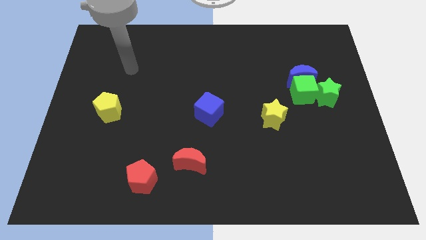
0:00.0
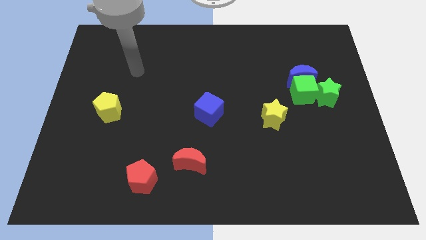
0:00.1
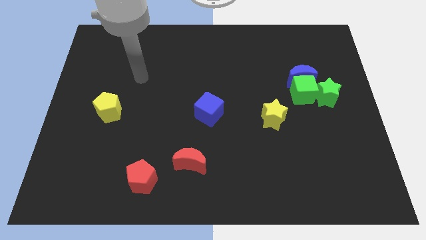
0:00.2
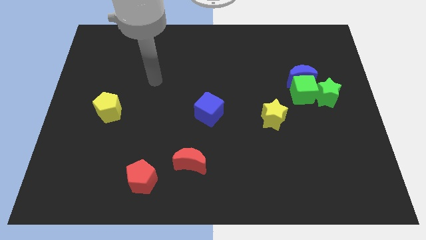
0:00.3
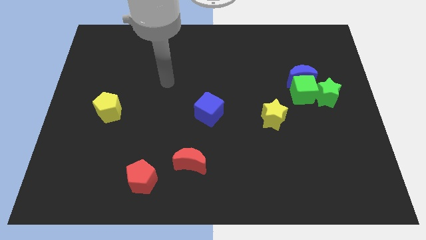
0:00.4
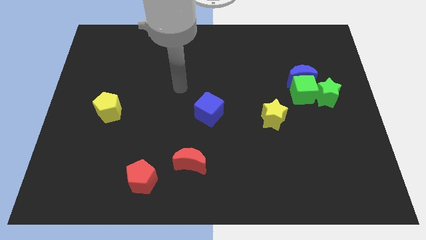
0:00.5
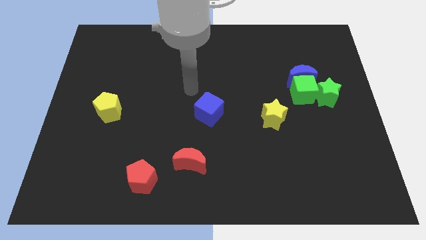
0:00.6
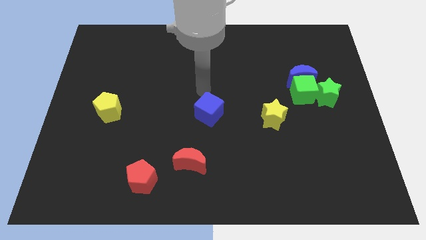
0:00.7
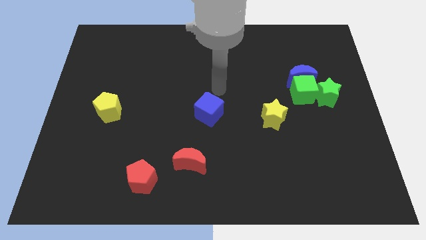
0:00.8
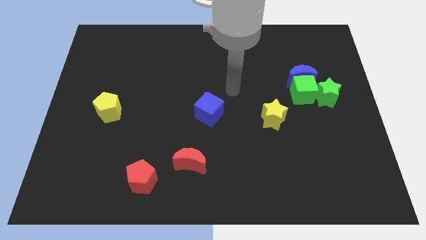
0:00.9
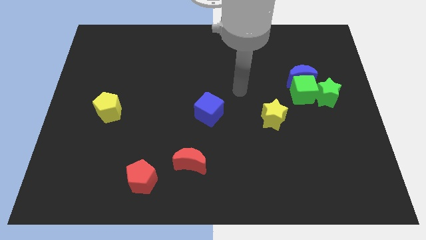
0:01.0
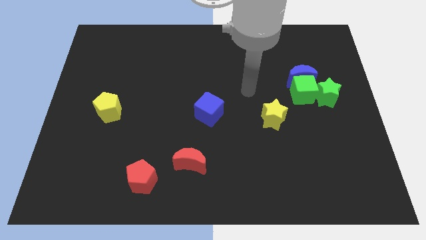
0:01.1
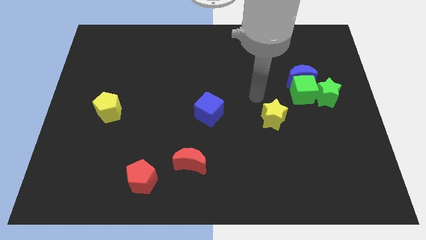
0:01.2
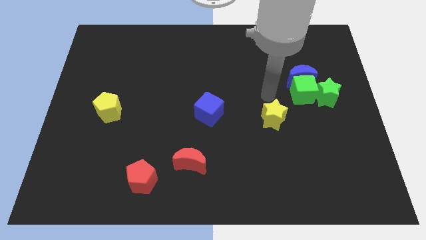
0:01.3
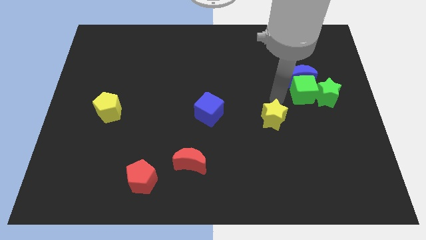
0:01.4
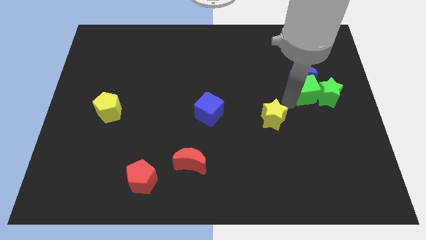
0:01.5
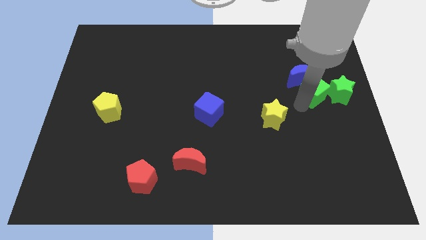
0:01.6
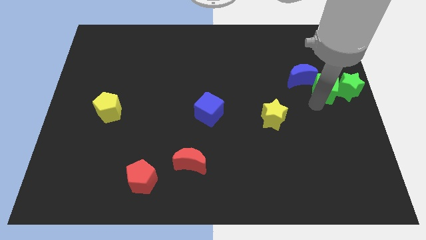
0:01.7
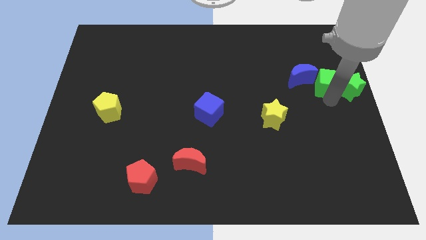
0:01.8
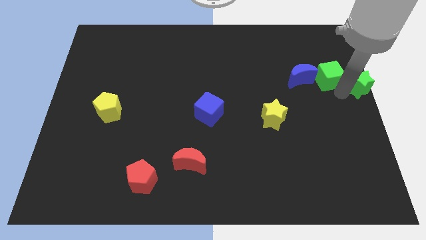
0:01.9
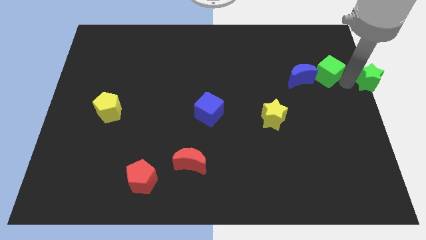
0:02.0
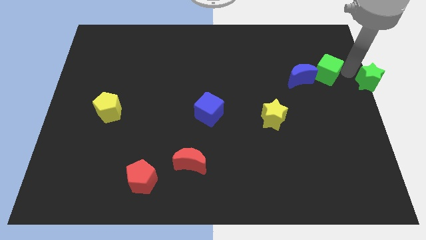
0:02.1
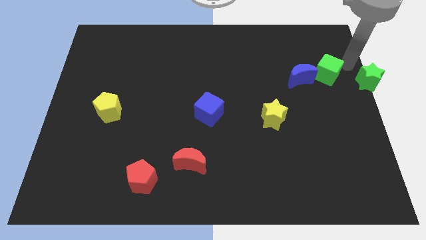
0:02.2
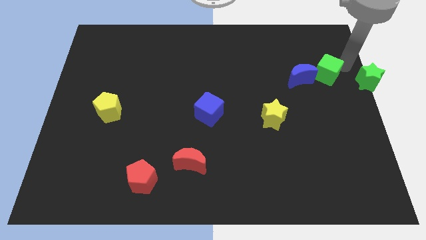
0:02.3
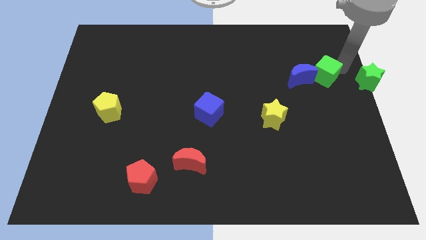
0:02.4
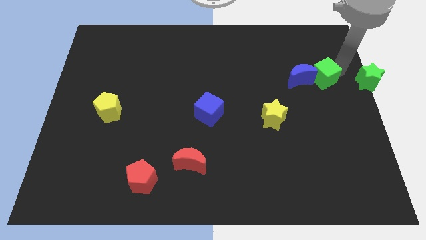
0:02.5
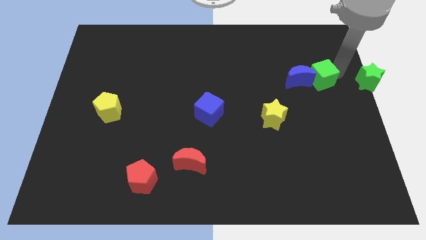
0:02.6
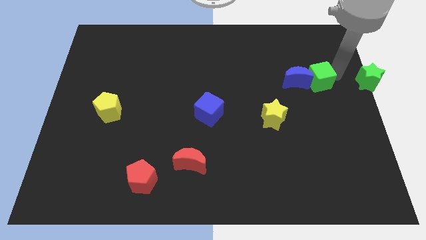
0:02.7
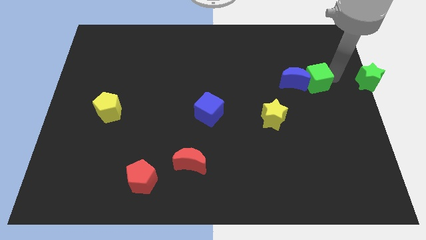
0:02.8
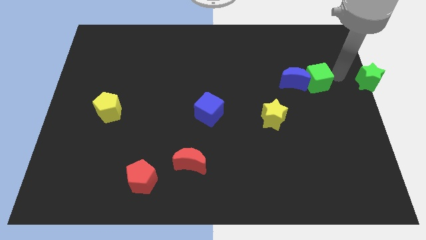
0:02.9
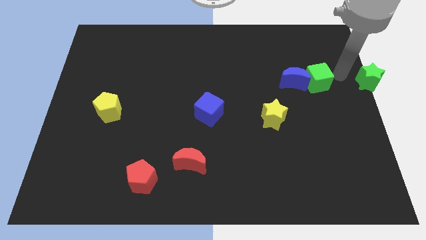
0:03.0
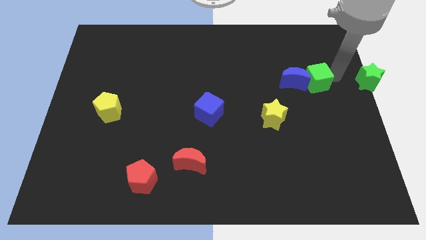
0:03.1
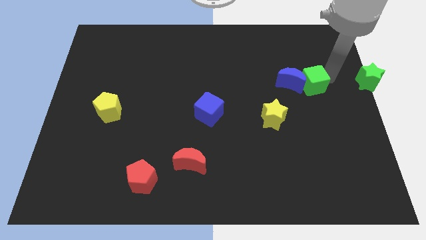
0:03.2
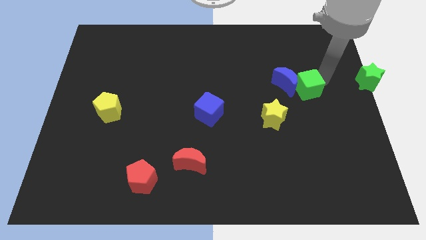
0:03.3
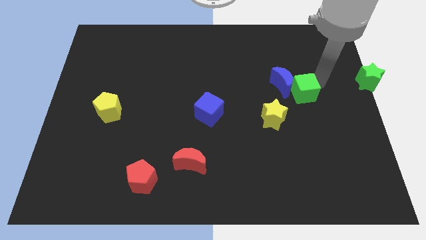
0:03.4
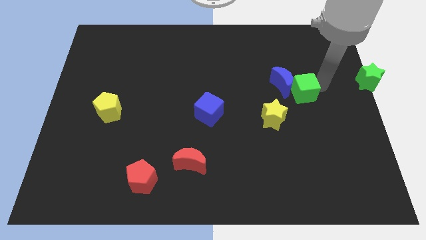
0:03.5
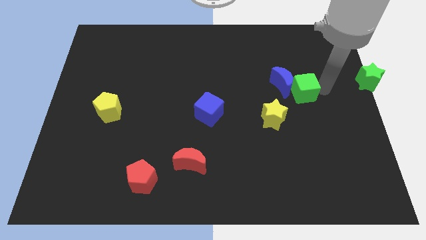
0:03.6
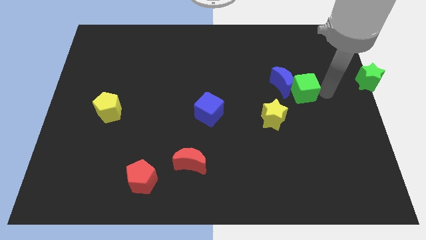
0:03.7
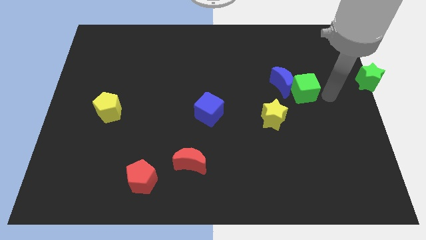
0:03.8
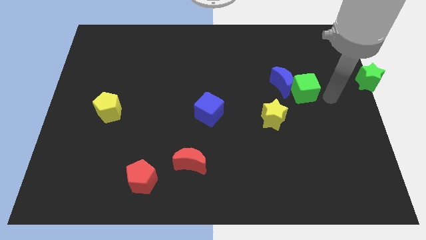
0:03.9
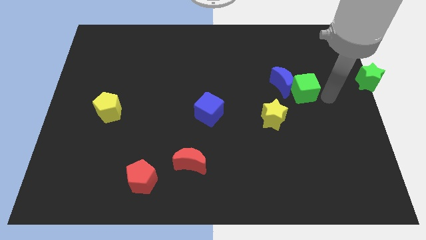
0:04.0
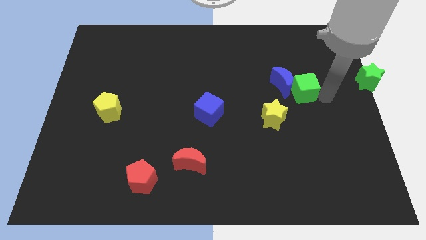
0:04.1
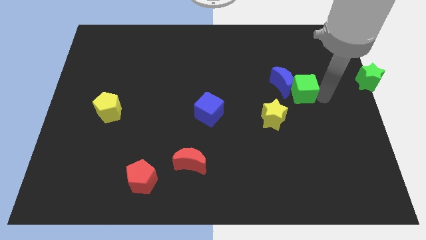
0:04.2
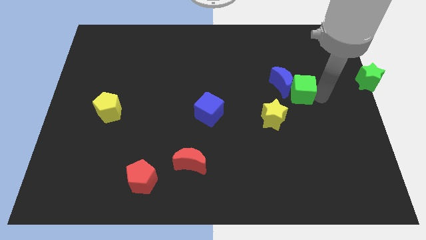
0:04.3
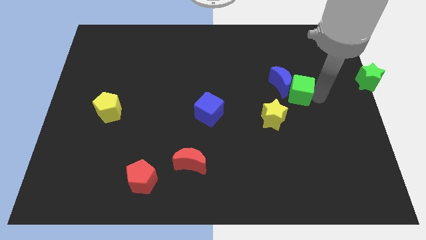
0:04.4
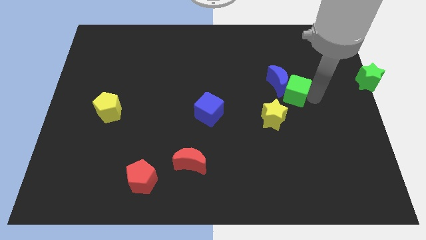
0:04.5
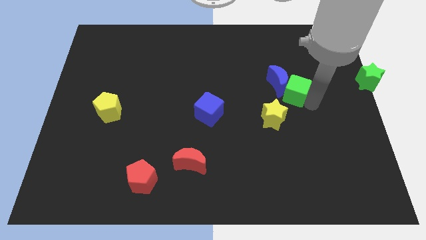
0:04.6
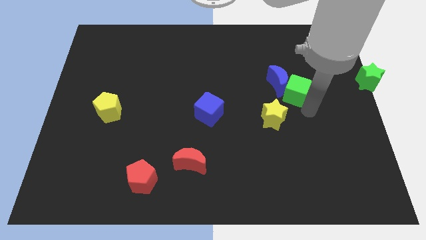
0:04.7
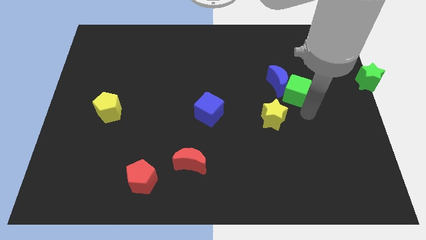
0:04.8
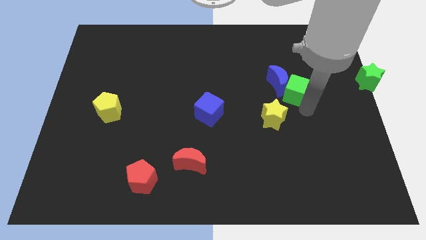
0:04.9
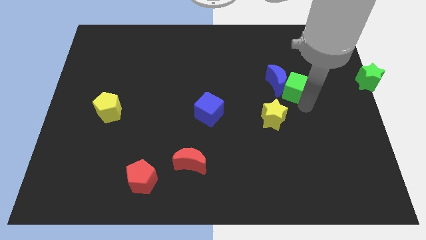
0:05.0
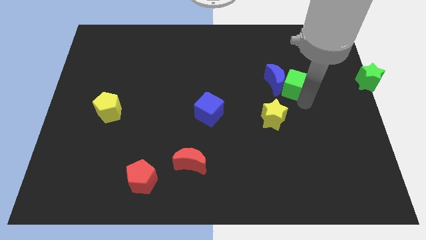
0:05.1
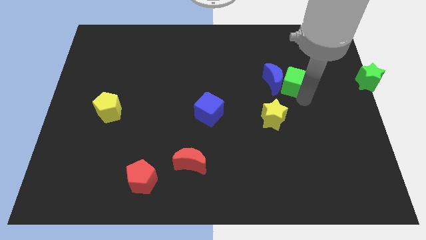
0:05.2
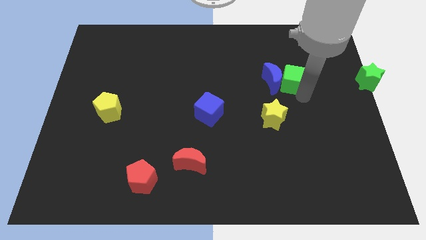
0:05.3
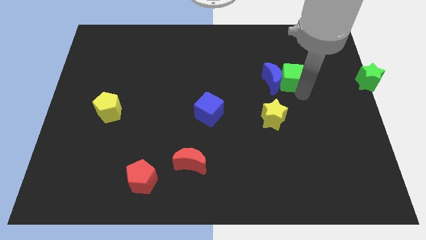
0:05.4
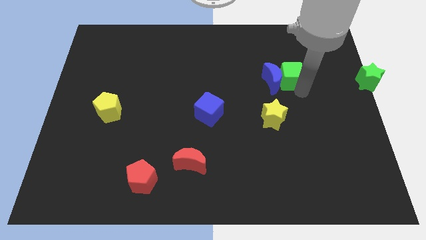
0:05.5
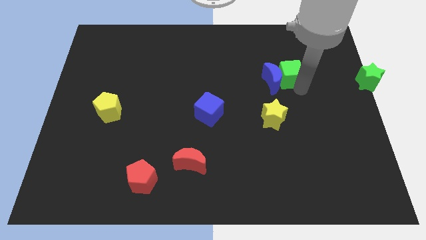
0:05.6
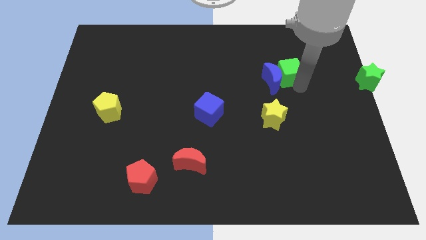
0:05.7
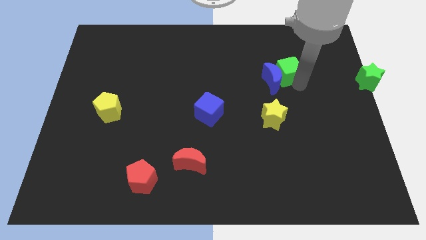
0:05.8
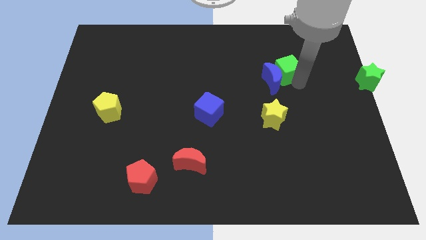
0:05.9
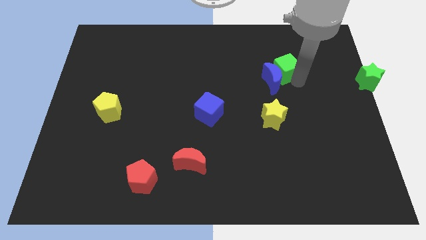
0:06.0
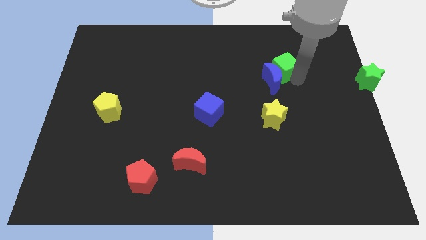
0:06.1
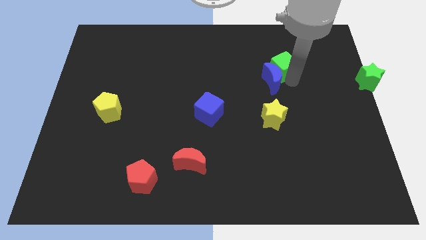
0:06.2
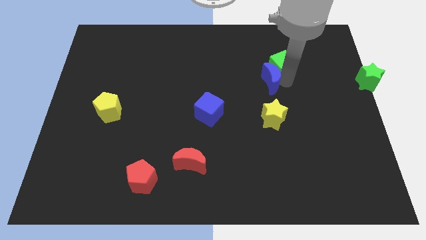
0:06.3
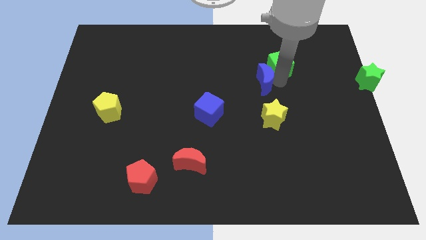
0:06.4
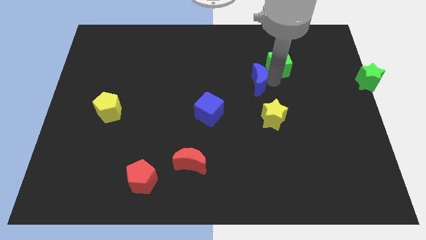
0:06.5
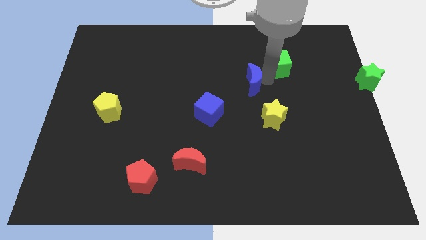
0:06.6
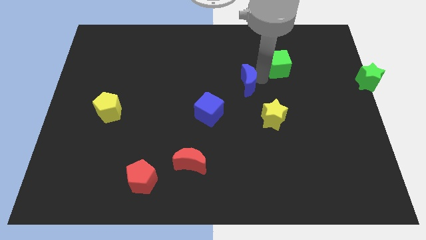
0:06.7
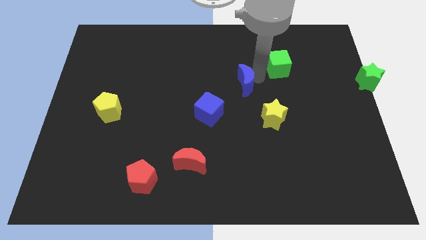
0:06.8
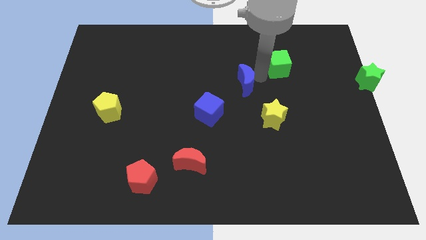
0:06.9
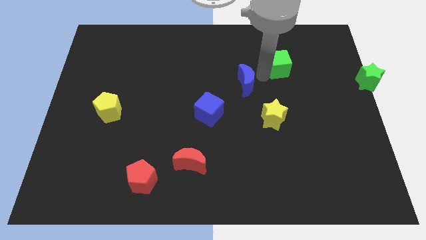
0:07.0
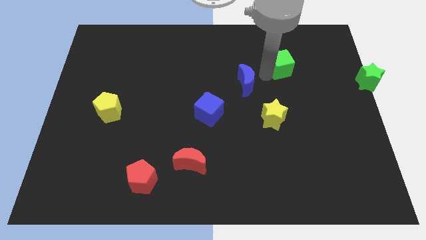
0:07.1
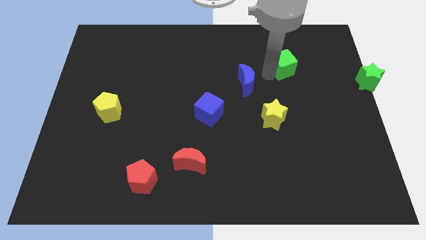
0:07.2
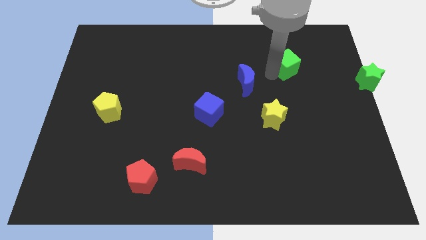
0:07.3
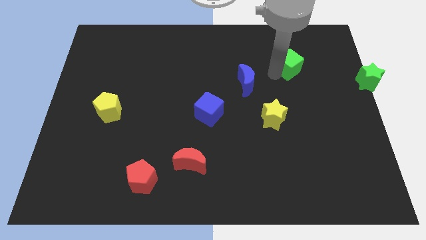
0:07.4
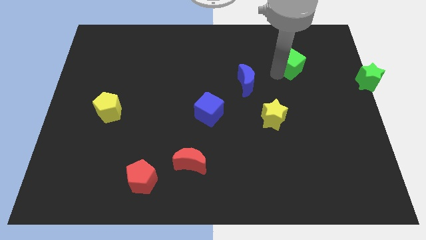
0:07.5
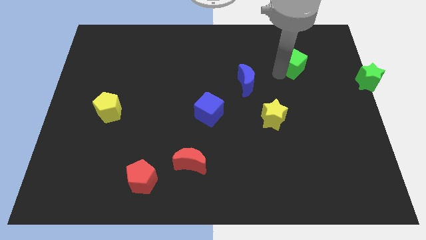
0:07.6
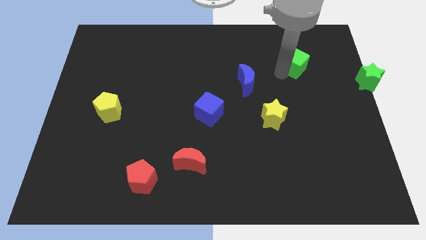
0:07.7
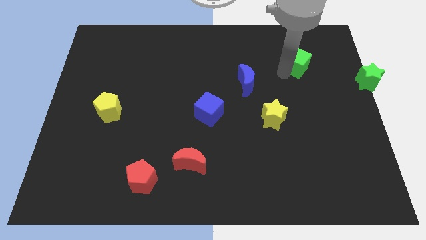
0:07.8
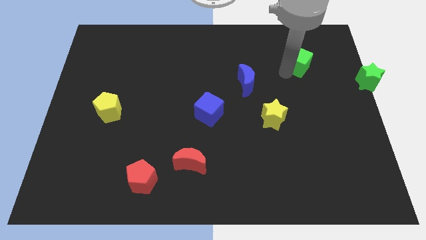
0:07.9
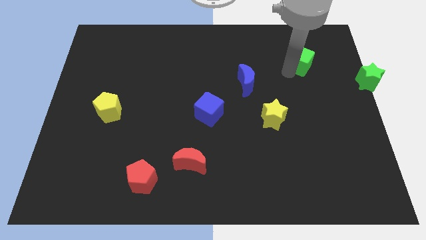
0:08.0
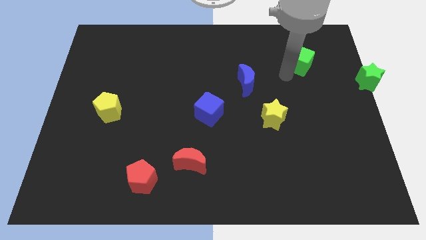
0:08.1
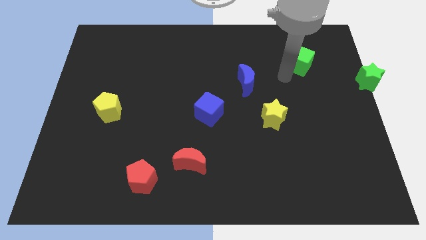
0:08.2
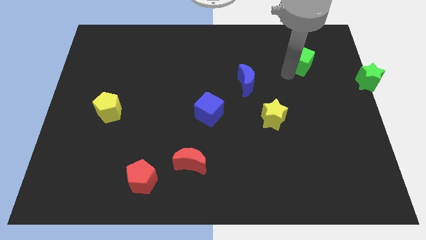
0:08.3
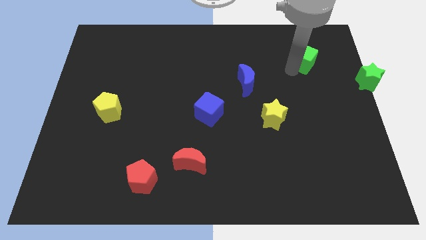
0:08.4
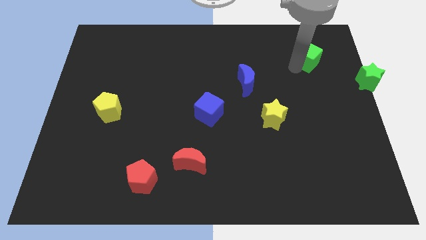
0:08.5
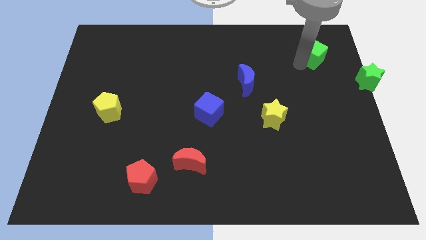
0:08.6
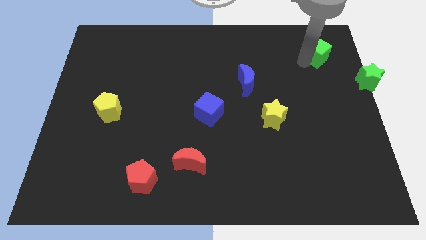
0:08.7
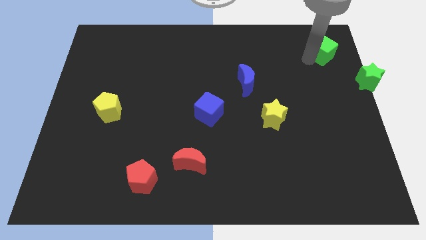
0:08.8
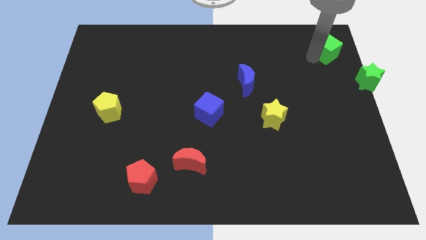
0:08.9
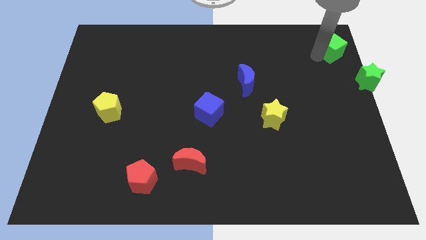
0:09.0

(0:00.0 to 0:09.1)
move the green cube to the upper right corner
